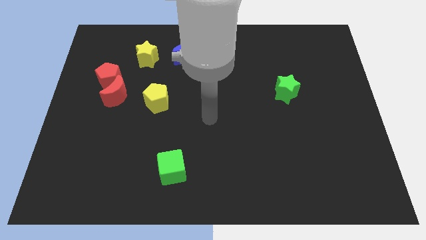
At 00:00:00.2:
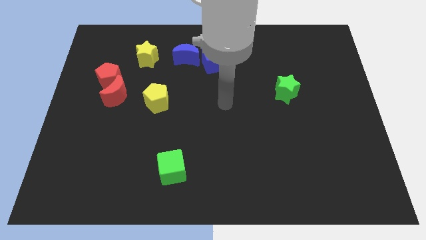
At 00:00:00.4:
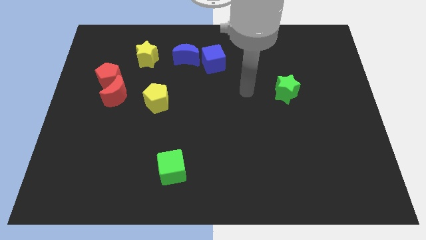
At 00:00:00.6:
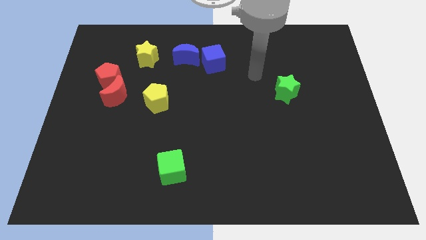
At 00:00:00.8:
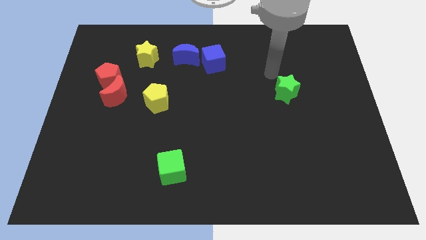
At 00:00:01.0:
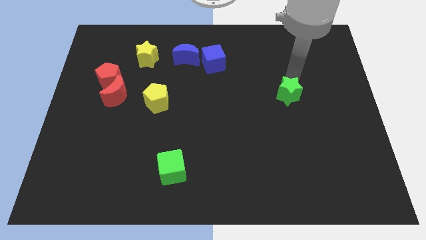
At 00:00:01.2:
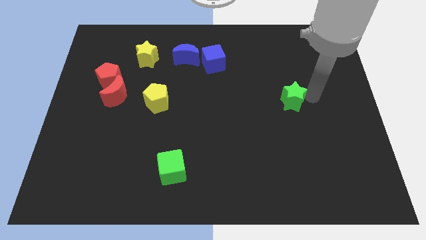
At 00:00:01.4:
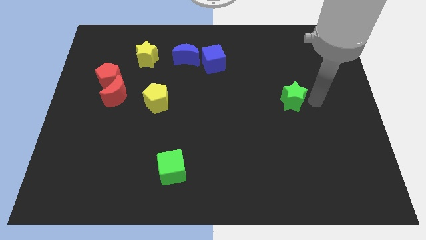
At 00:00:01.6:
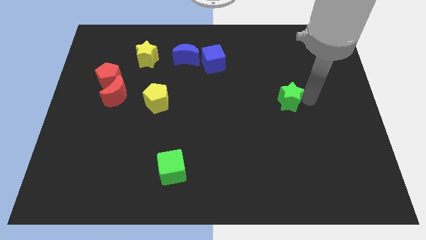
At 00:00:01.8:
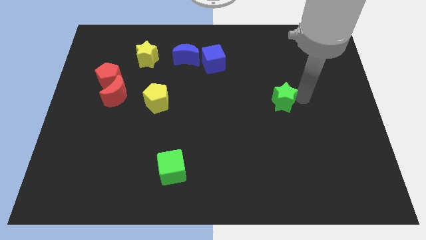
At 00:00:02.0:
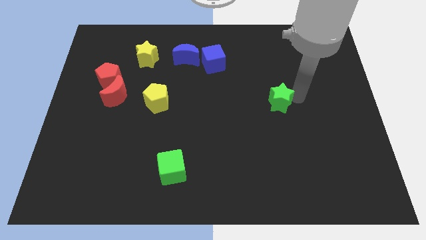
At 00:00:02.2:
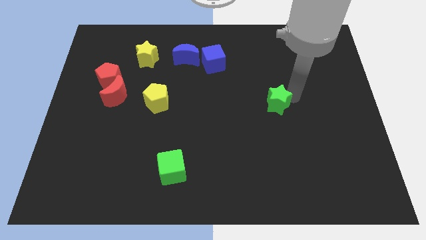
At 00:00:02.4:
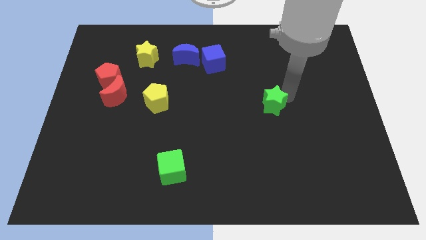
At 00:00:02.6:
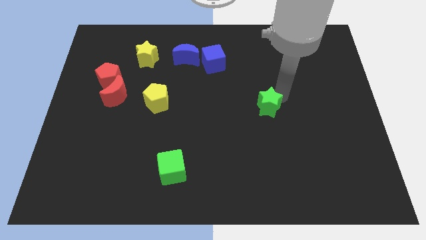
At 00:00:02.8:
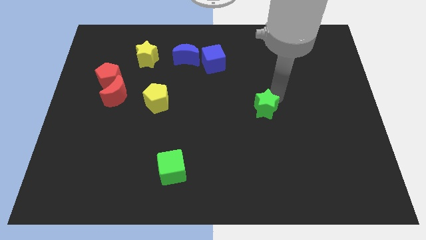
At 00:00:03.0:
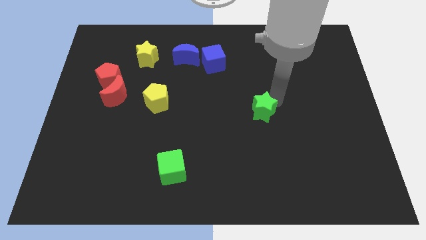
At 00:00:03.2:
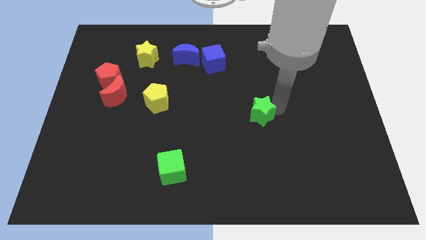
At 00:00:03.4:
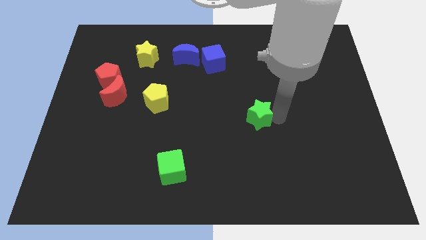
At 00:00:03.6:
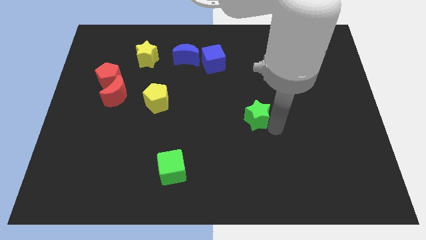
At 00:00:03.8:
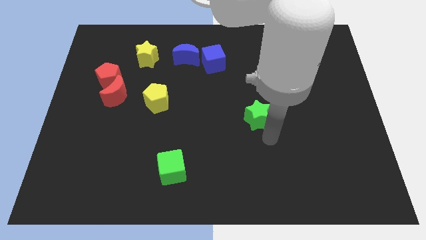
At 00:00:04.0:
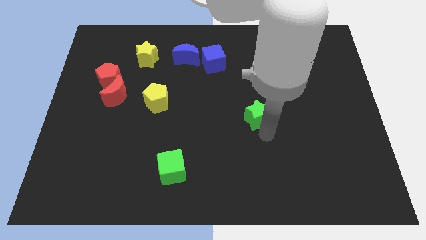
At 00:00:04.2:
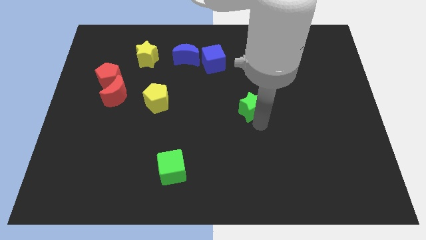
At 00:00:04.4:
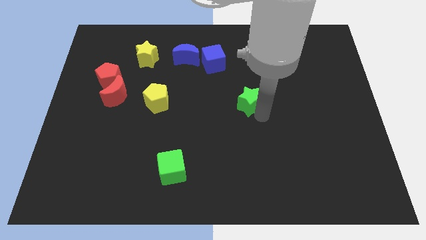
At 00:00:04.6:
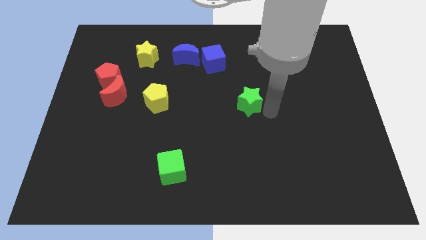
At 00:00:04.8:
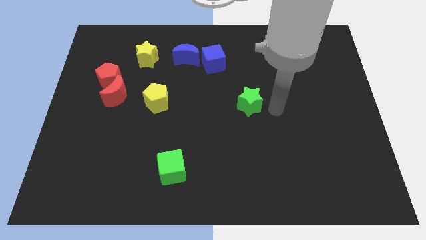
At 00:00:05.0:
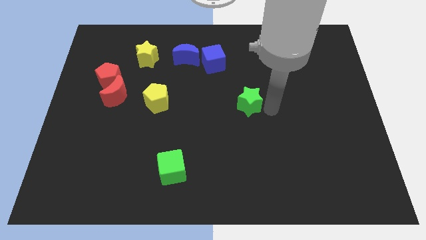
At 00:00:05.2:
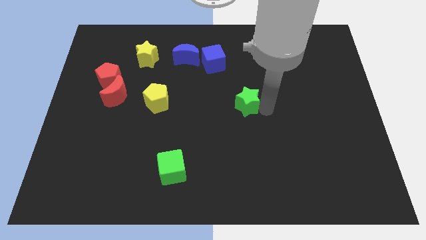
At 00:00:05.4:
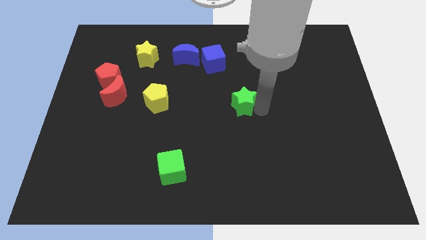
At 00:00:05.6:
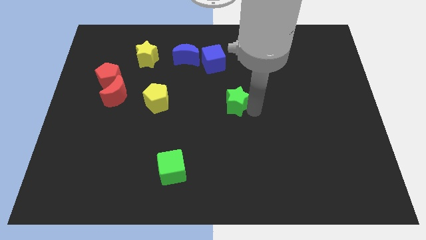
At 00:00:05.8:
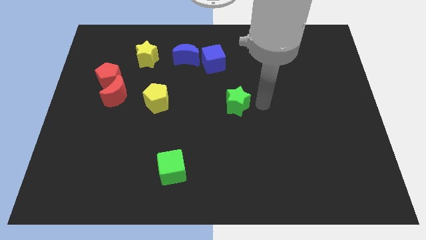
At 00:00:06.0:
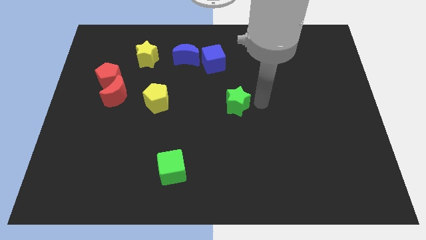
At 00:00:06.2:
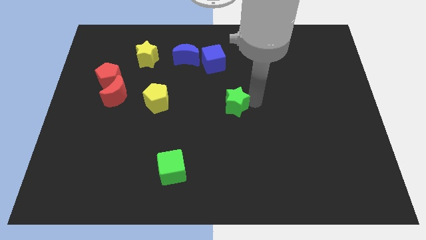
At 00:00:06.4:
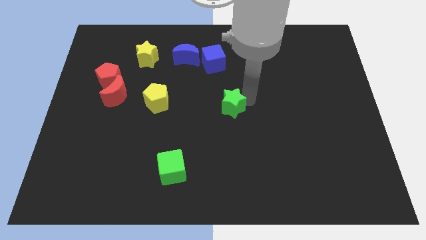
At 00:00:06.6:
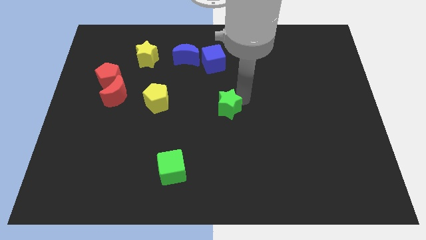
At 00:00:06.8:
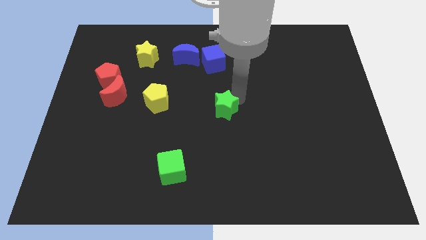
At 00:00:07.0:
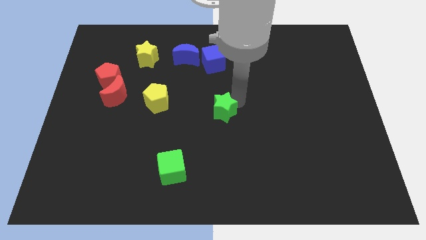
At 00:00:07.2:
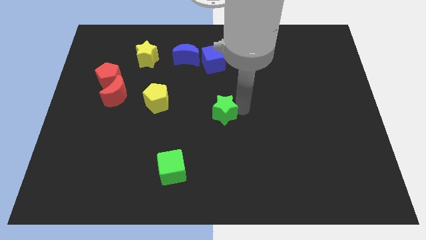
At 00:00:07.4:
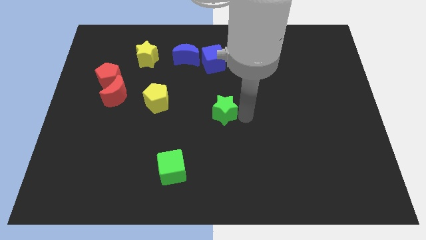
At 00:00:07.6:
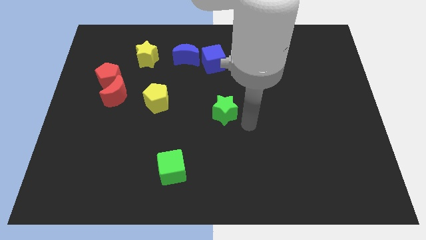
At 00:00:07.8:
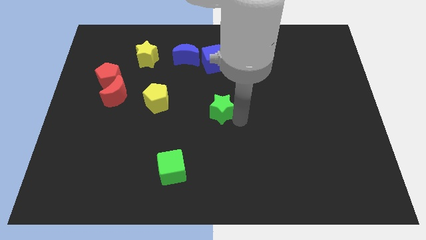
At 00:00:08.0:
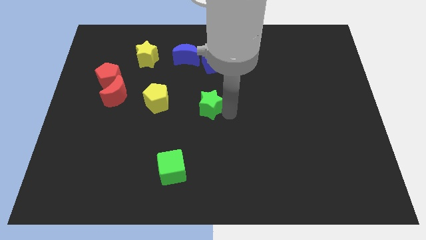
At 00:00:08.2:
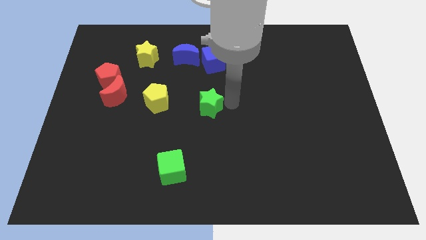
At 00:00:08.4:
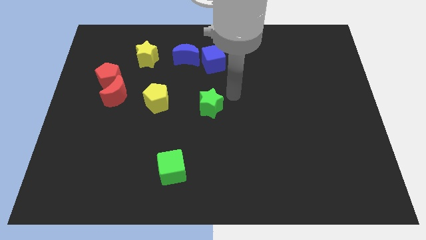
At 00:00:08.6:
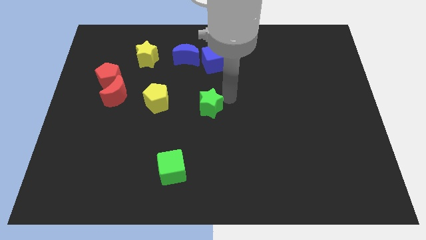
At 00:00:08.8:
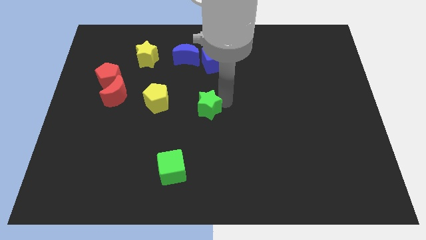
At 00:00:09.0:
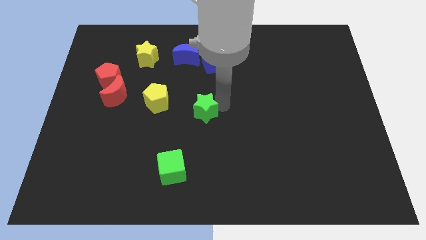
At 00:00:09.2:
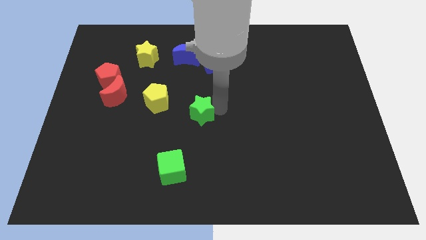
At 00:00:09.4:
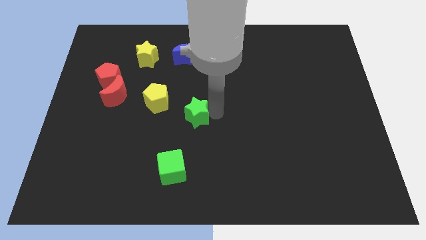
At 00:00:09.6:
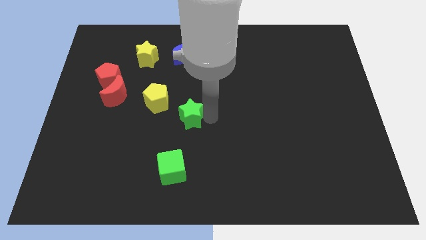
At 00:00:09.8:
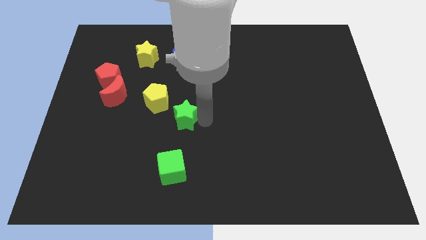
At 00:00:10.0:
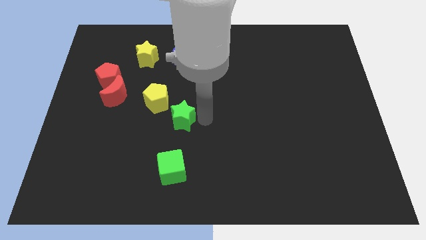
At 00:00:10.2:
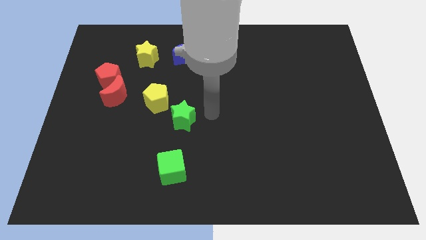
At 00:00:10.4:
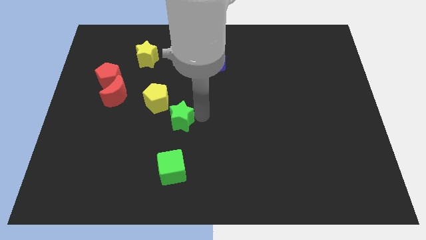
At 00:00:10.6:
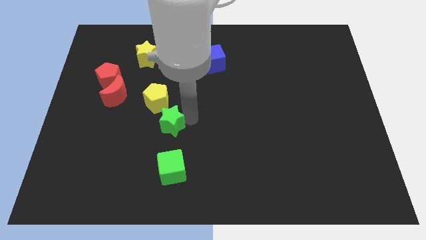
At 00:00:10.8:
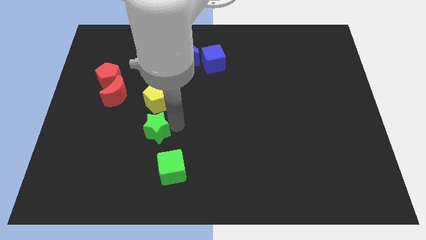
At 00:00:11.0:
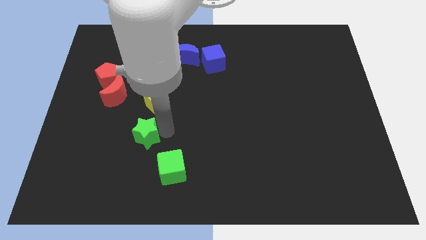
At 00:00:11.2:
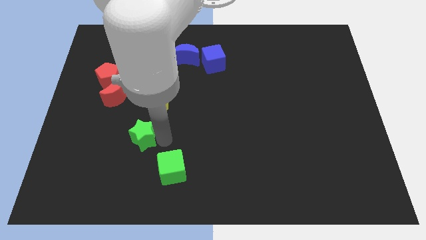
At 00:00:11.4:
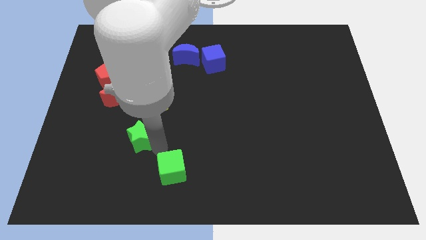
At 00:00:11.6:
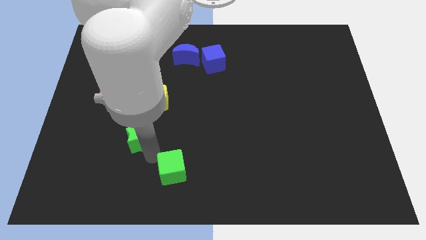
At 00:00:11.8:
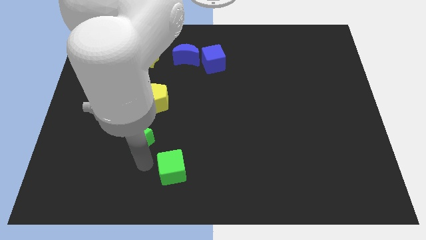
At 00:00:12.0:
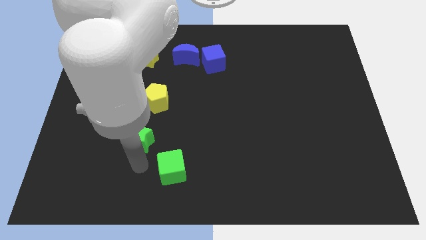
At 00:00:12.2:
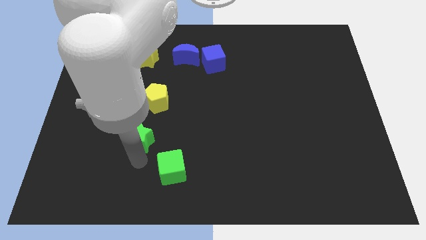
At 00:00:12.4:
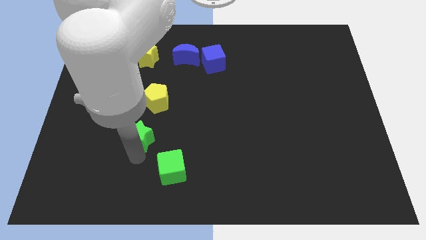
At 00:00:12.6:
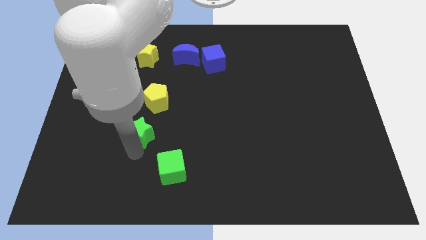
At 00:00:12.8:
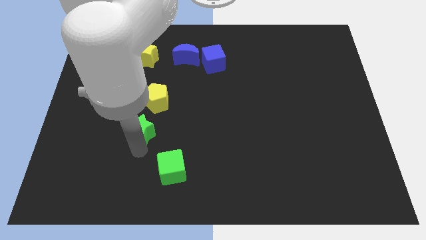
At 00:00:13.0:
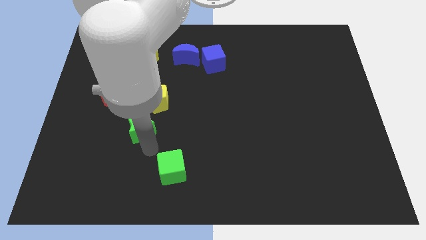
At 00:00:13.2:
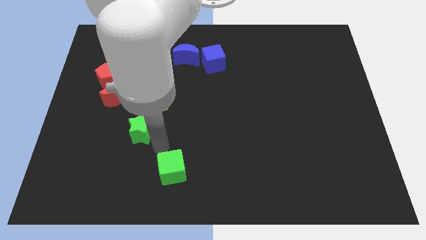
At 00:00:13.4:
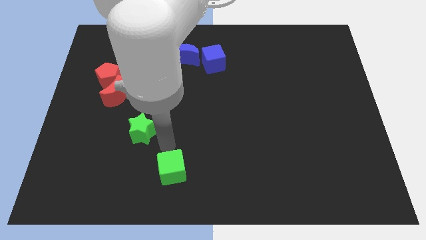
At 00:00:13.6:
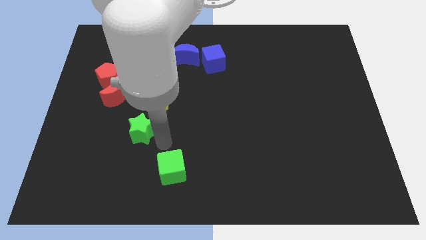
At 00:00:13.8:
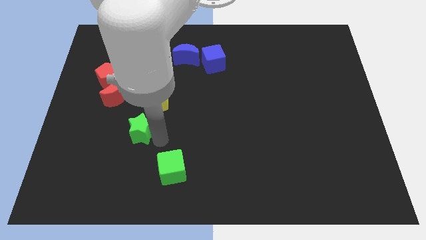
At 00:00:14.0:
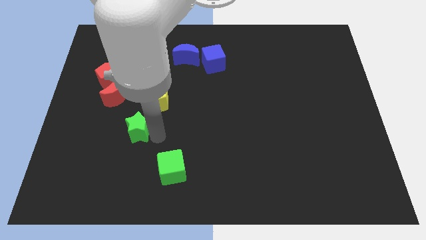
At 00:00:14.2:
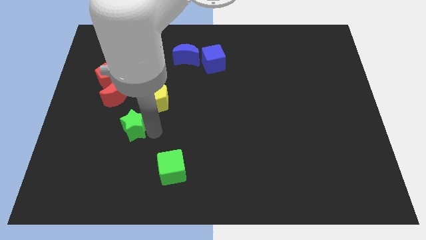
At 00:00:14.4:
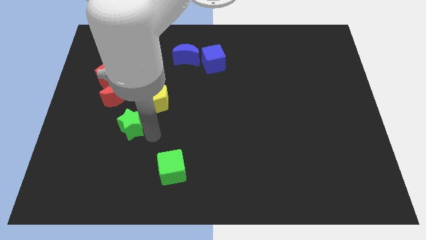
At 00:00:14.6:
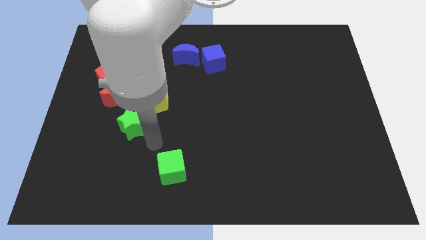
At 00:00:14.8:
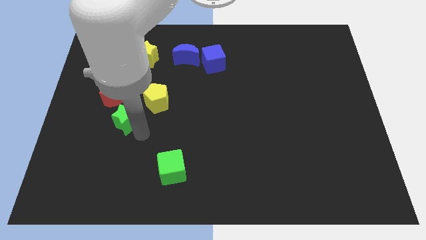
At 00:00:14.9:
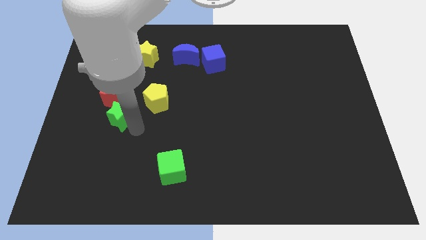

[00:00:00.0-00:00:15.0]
slide the green star to the left of the yellow pentagon
